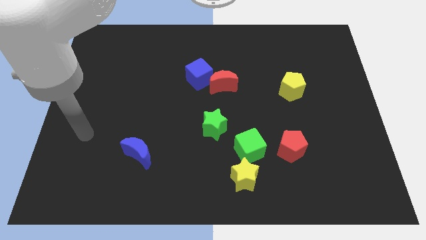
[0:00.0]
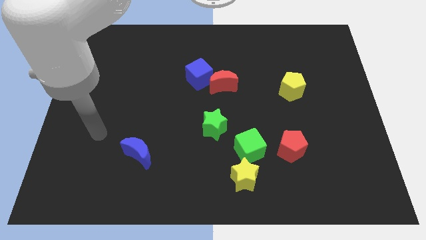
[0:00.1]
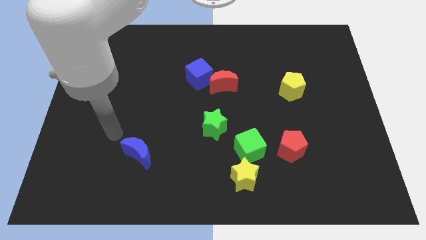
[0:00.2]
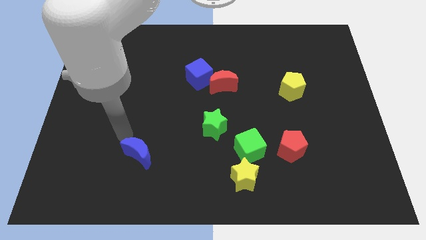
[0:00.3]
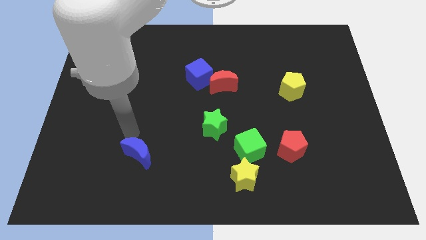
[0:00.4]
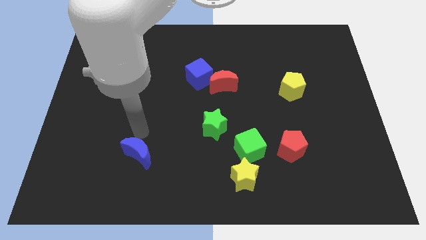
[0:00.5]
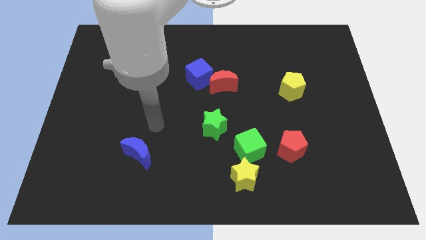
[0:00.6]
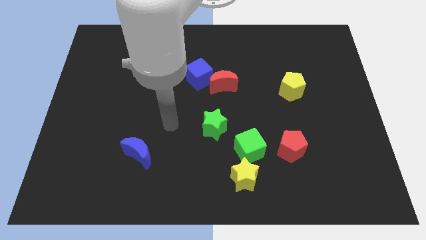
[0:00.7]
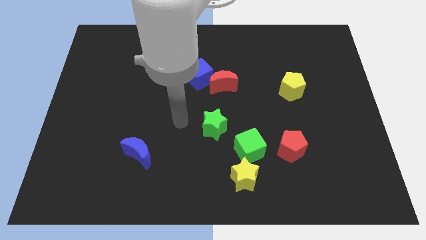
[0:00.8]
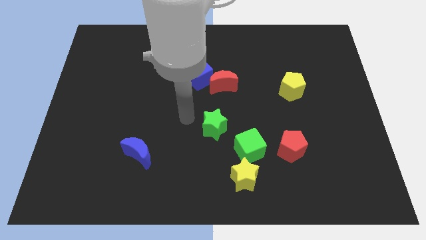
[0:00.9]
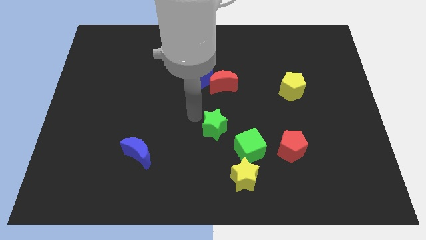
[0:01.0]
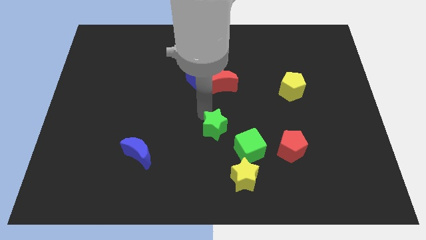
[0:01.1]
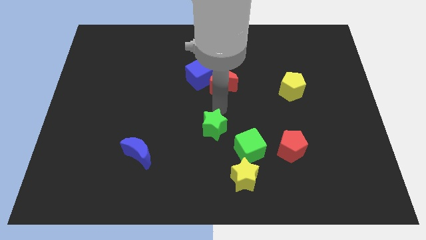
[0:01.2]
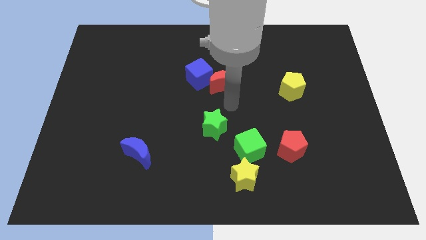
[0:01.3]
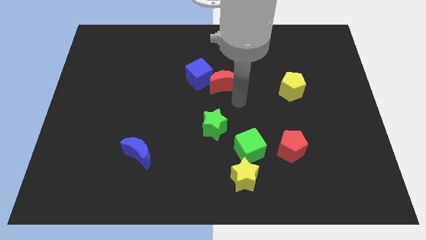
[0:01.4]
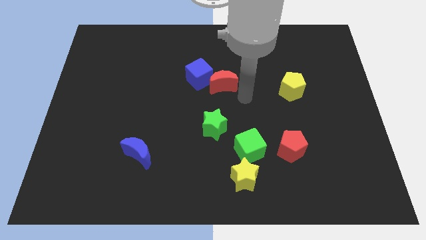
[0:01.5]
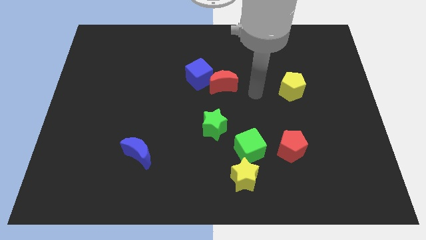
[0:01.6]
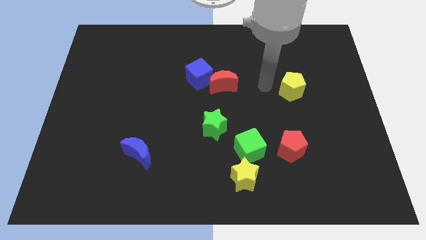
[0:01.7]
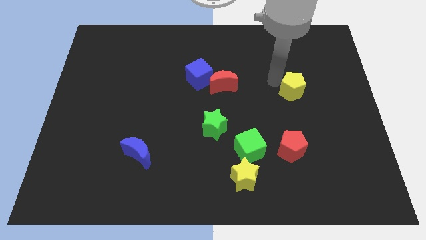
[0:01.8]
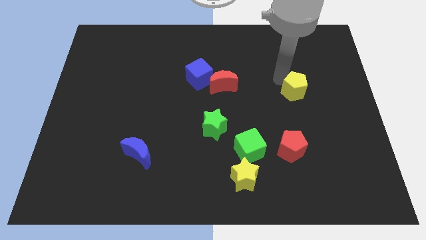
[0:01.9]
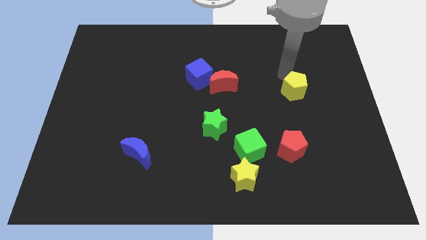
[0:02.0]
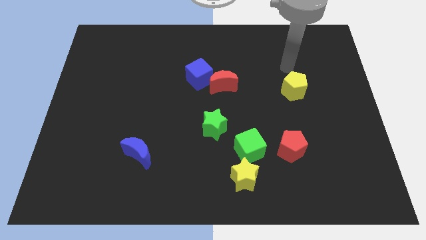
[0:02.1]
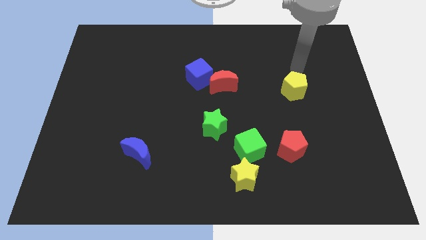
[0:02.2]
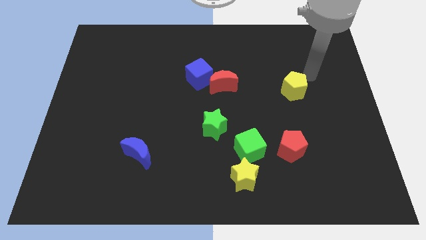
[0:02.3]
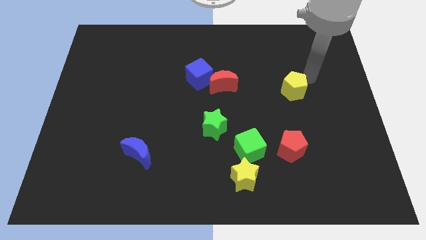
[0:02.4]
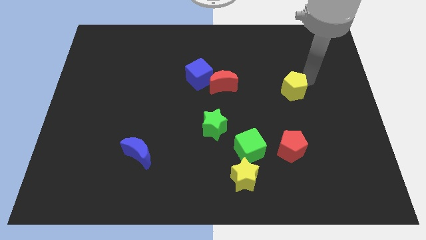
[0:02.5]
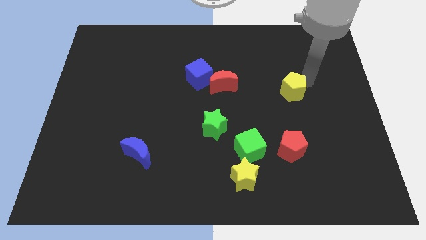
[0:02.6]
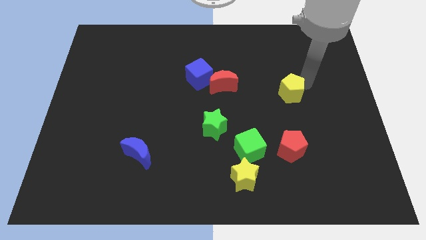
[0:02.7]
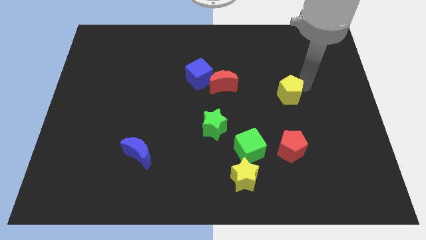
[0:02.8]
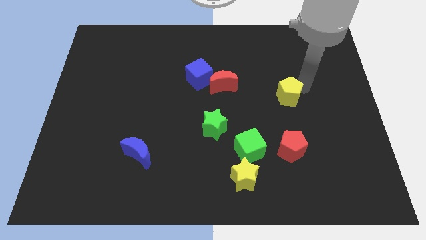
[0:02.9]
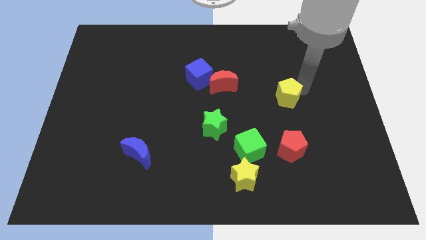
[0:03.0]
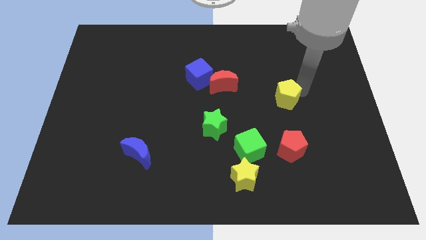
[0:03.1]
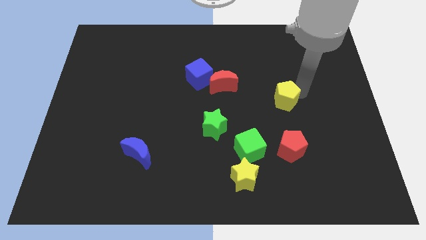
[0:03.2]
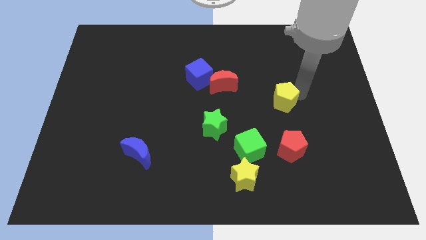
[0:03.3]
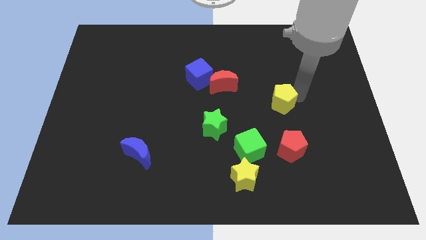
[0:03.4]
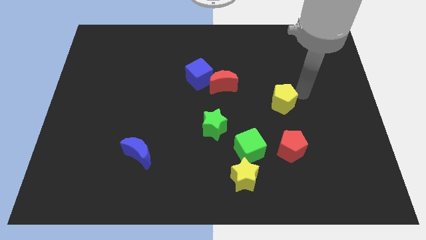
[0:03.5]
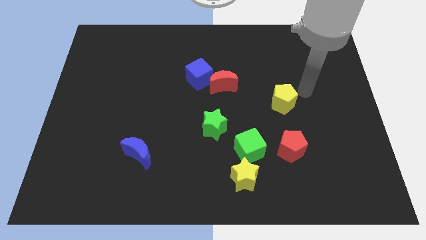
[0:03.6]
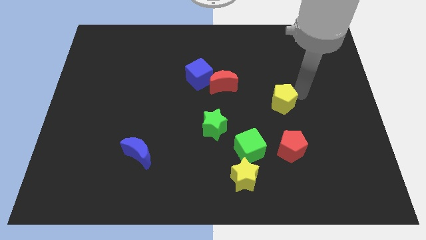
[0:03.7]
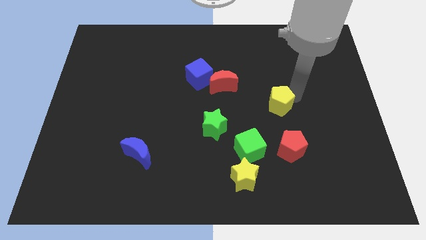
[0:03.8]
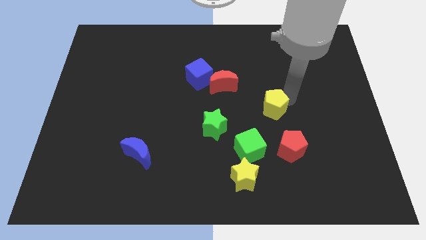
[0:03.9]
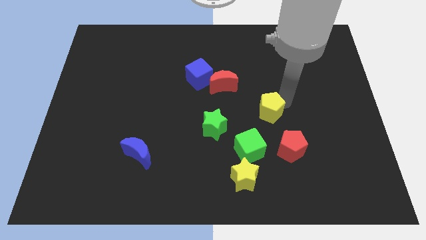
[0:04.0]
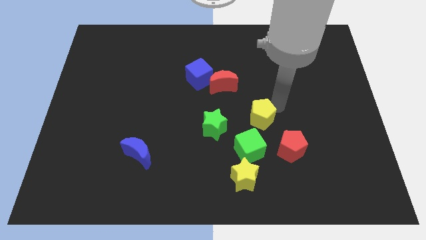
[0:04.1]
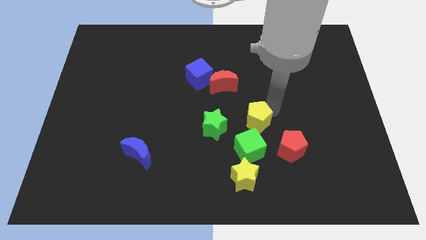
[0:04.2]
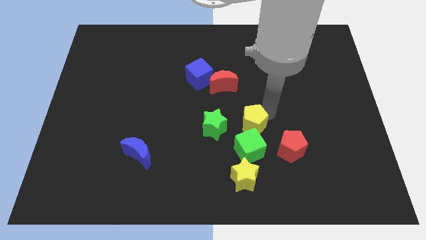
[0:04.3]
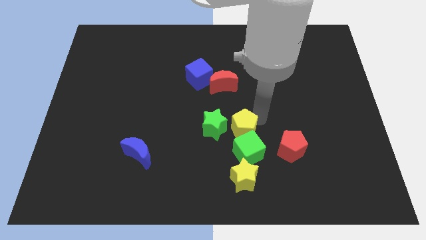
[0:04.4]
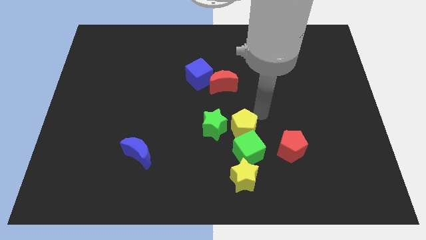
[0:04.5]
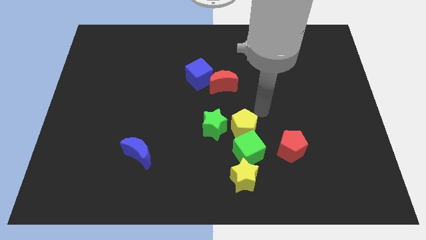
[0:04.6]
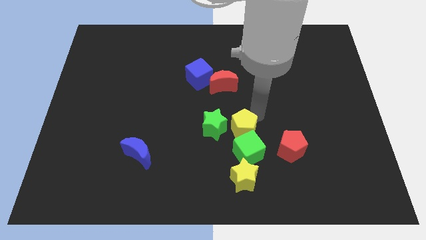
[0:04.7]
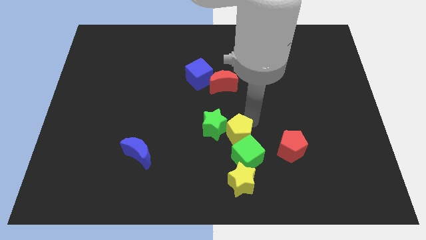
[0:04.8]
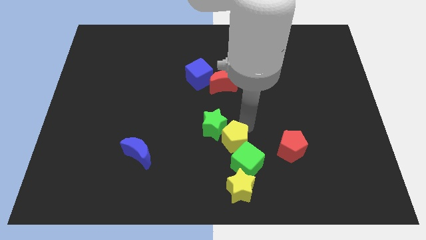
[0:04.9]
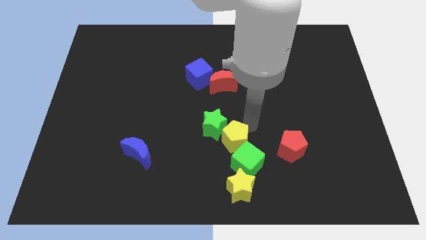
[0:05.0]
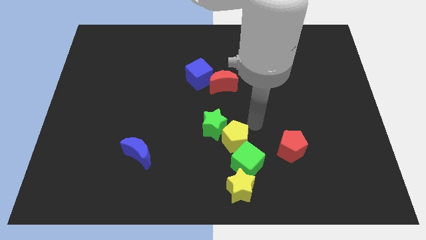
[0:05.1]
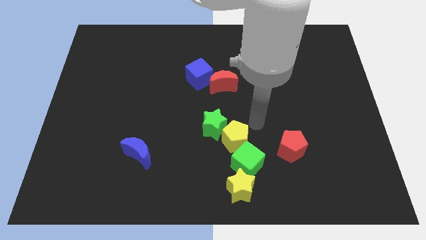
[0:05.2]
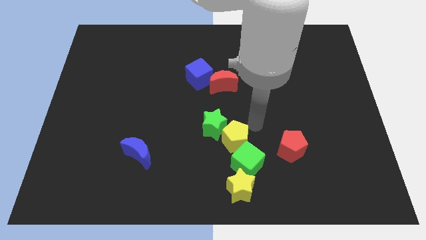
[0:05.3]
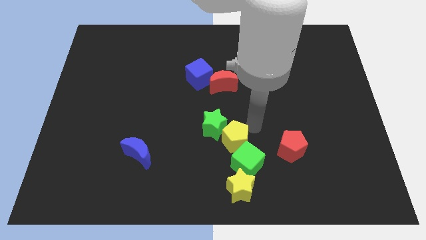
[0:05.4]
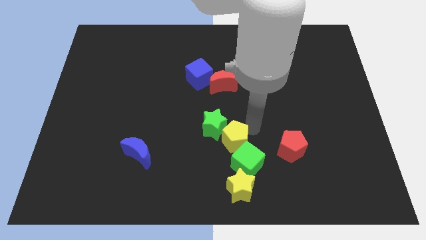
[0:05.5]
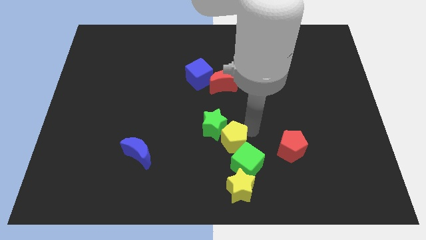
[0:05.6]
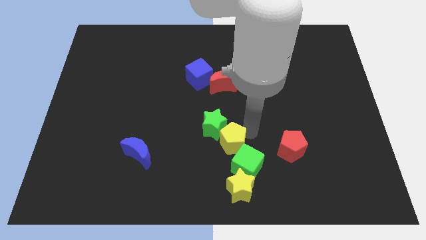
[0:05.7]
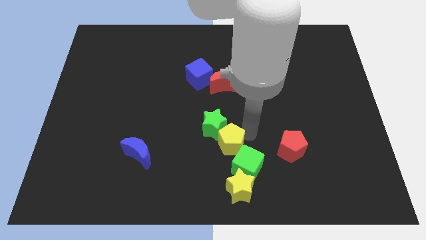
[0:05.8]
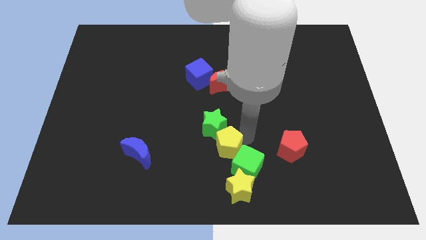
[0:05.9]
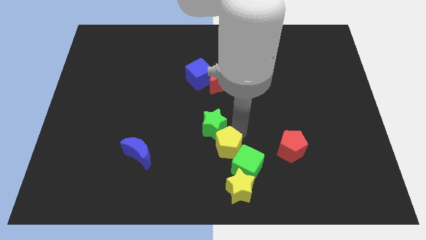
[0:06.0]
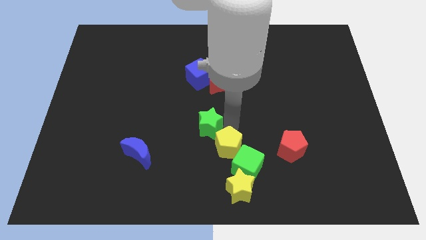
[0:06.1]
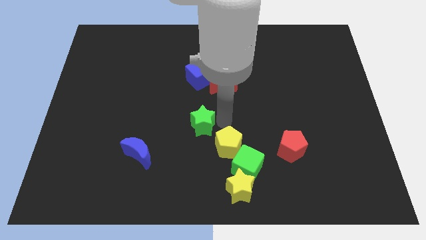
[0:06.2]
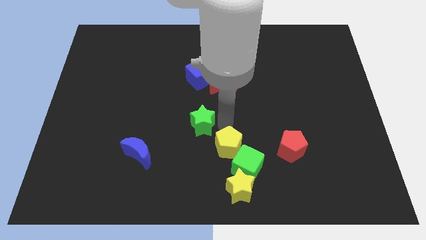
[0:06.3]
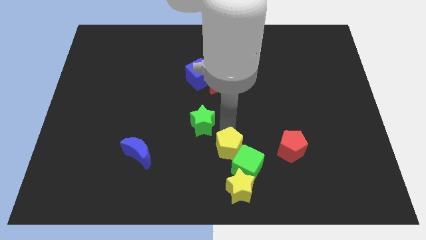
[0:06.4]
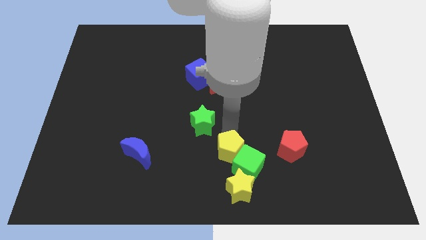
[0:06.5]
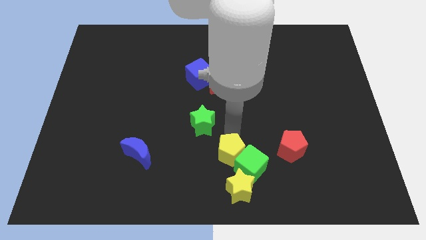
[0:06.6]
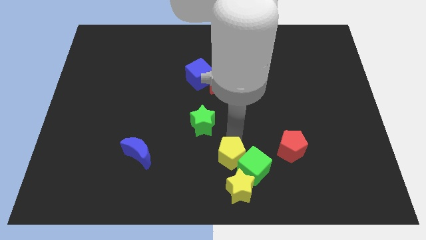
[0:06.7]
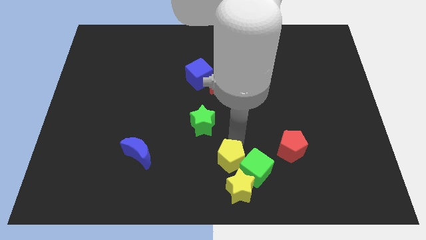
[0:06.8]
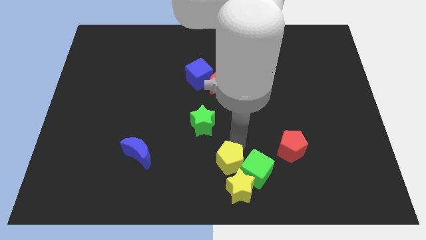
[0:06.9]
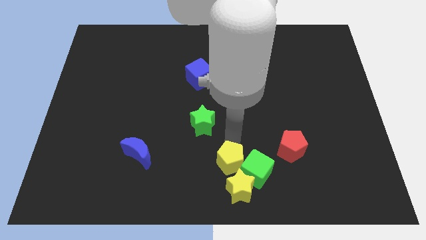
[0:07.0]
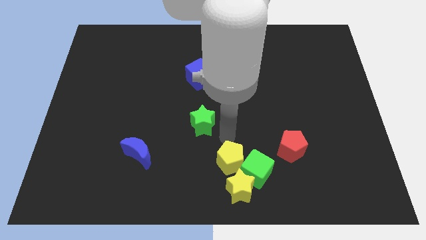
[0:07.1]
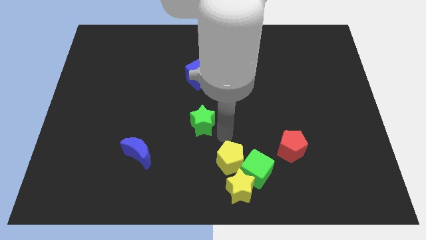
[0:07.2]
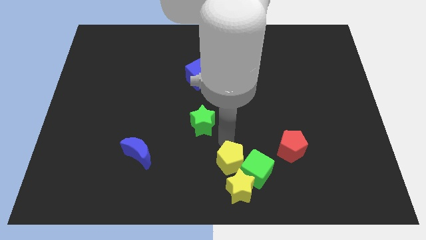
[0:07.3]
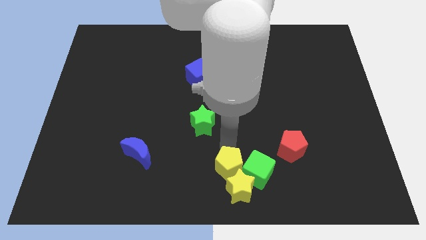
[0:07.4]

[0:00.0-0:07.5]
put the yellow pentagon close to the yellow star
